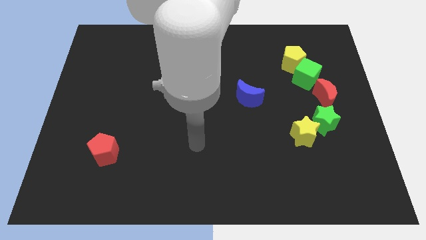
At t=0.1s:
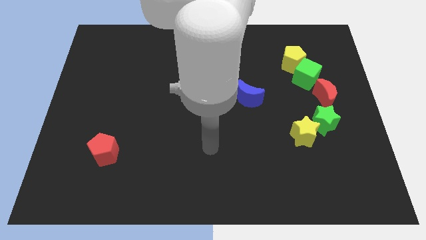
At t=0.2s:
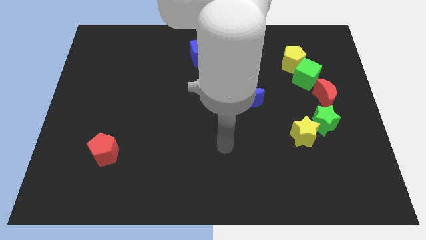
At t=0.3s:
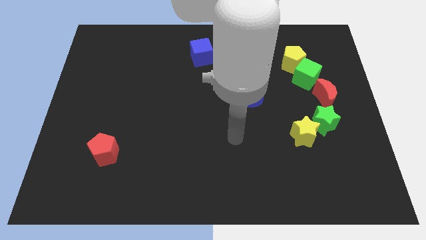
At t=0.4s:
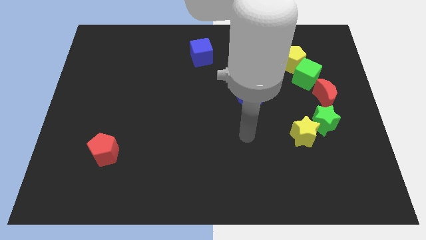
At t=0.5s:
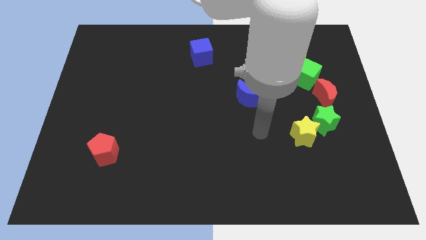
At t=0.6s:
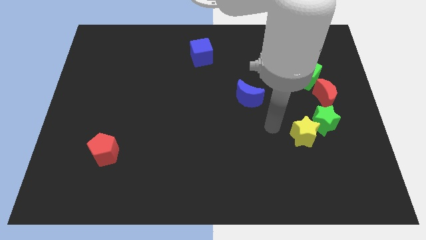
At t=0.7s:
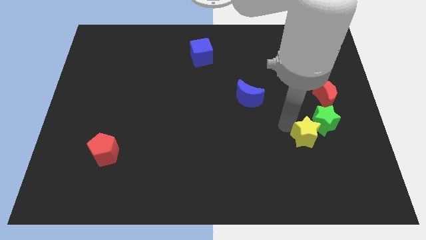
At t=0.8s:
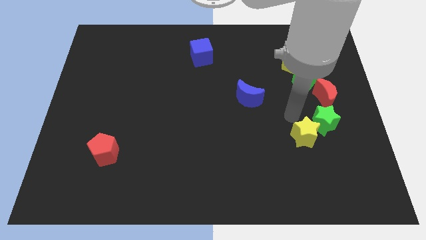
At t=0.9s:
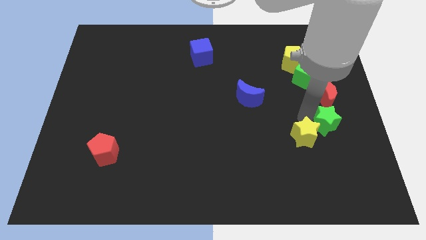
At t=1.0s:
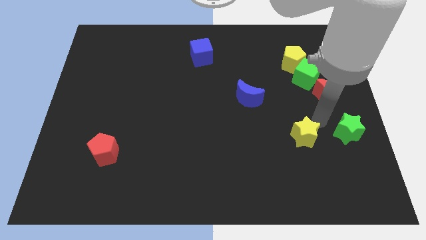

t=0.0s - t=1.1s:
separate the yellow star from the green star

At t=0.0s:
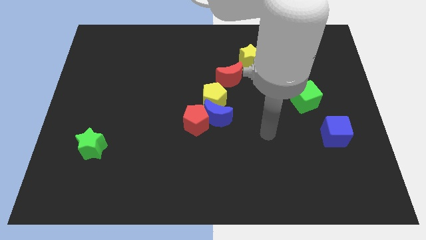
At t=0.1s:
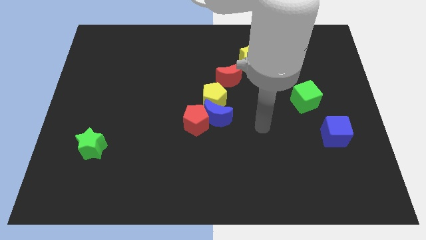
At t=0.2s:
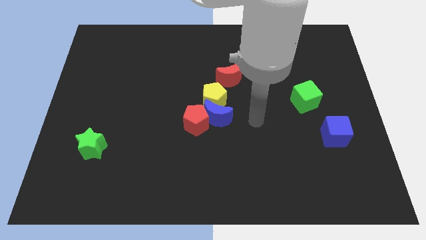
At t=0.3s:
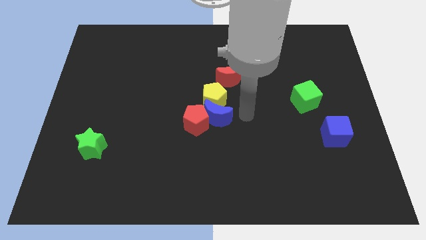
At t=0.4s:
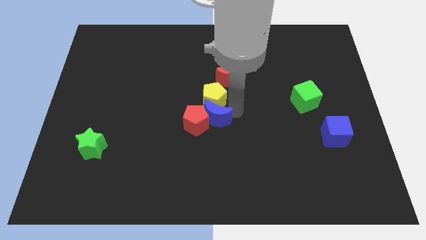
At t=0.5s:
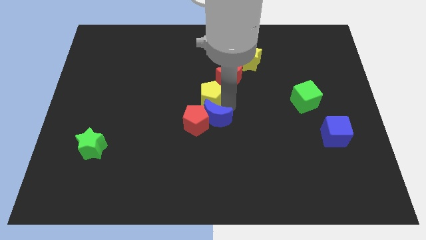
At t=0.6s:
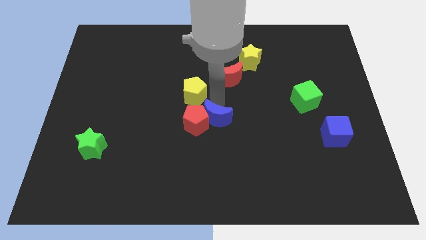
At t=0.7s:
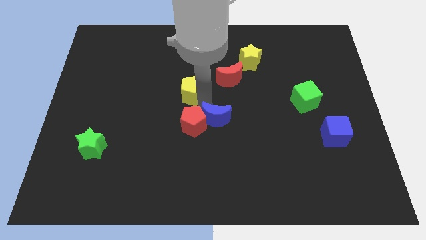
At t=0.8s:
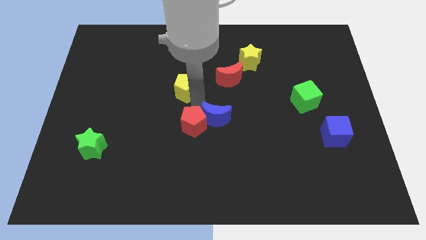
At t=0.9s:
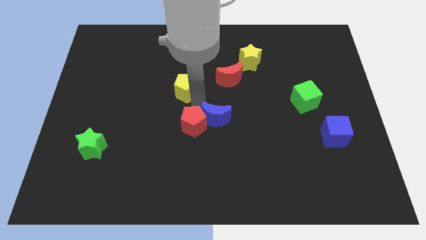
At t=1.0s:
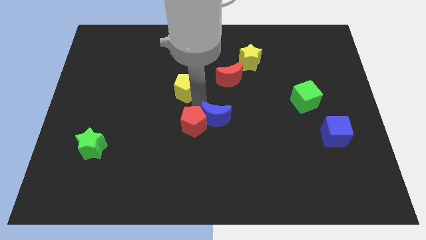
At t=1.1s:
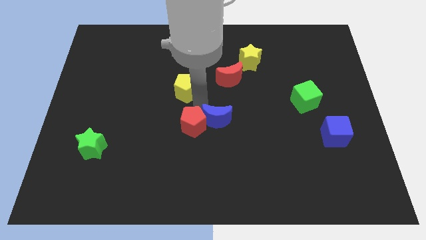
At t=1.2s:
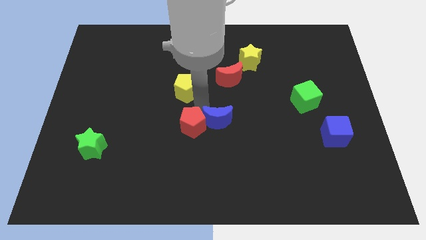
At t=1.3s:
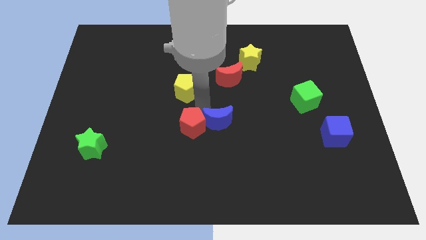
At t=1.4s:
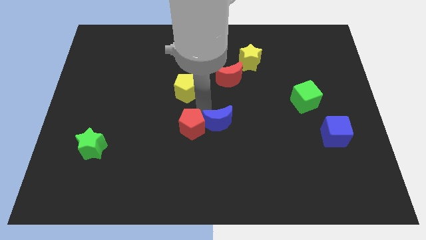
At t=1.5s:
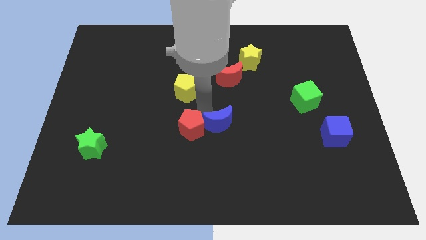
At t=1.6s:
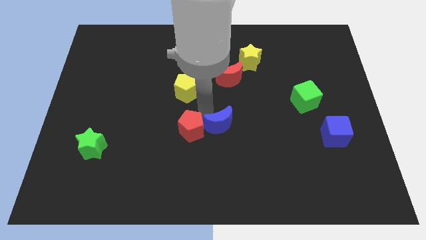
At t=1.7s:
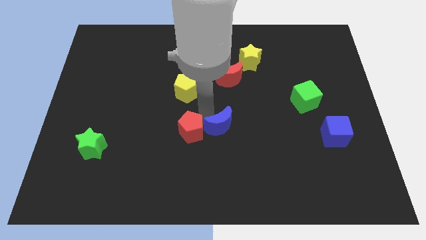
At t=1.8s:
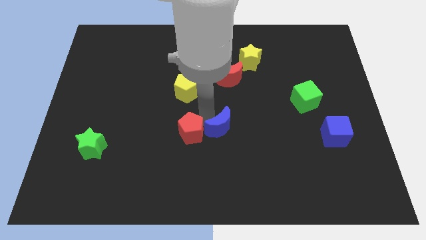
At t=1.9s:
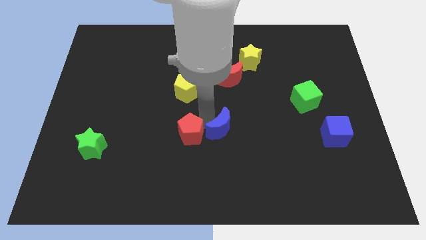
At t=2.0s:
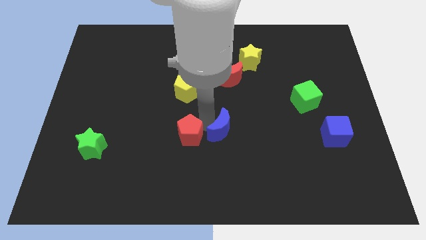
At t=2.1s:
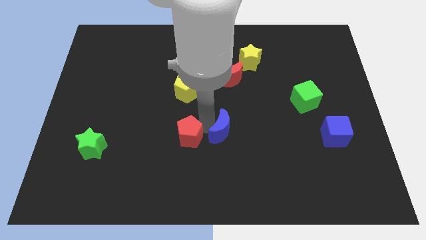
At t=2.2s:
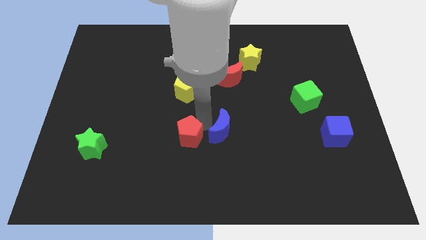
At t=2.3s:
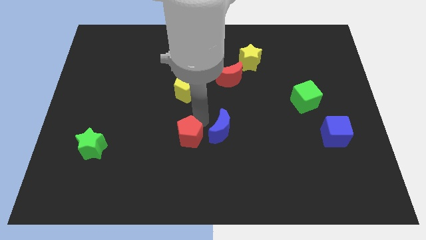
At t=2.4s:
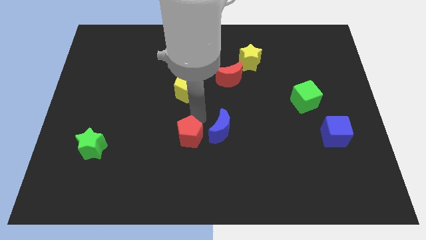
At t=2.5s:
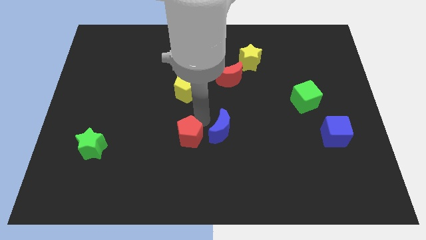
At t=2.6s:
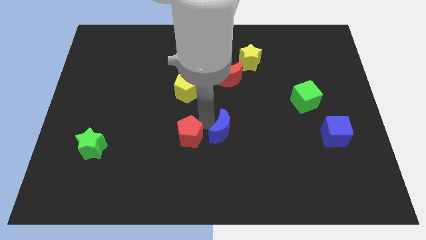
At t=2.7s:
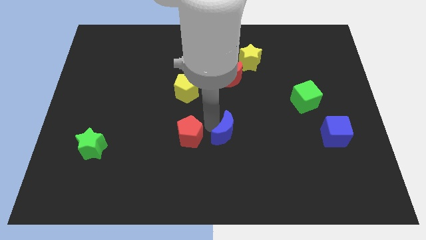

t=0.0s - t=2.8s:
move the blue moon away from the yellow pentagon and red pentagon

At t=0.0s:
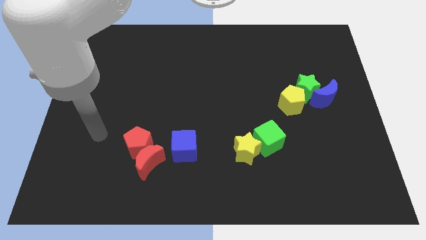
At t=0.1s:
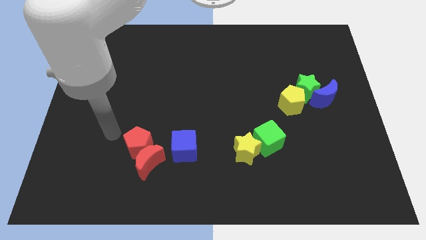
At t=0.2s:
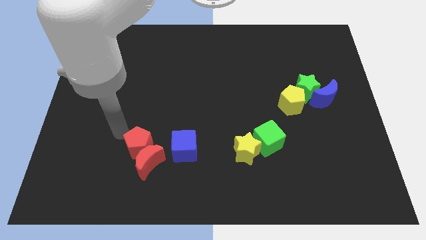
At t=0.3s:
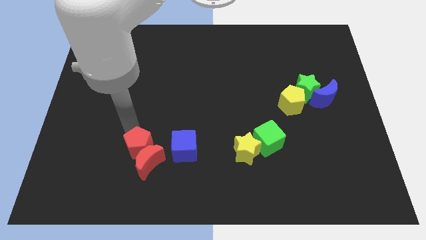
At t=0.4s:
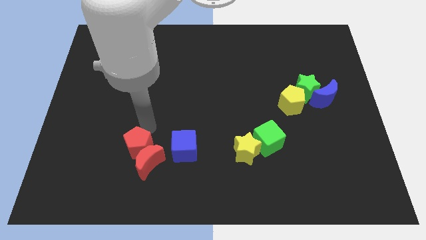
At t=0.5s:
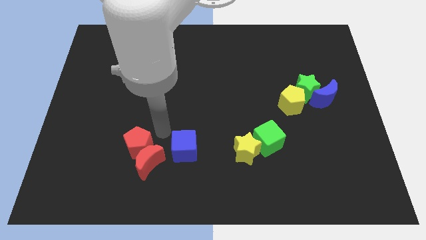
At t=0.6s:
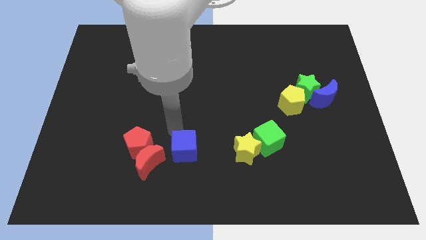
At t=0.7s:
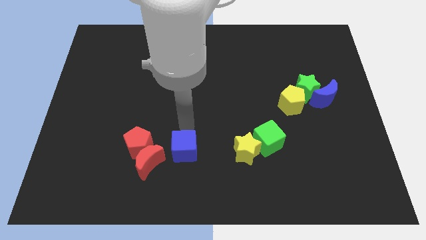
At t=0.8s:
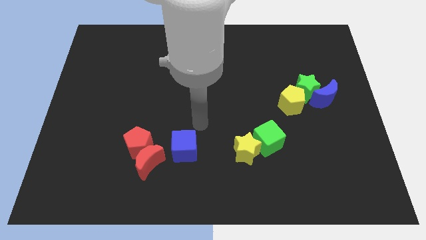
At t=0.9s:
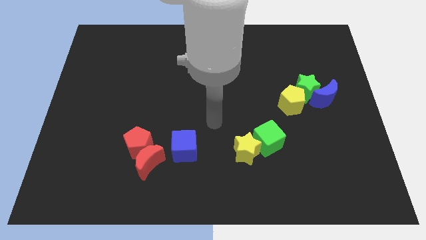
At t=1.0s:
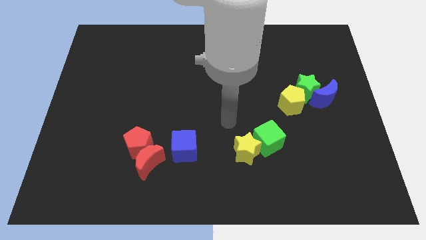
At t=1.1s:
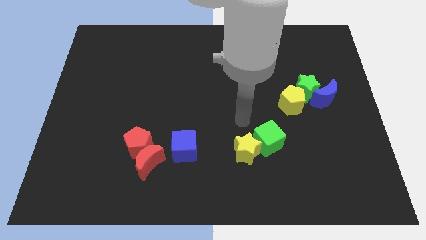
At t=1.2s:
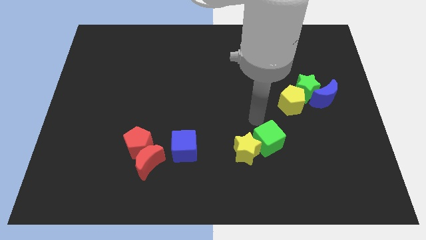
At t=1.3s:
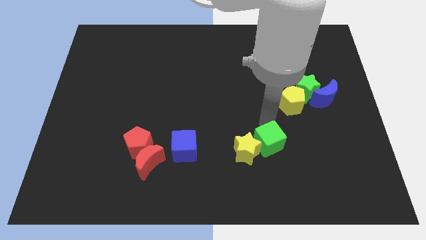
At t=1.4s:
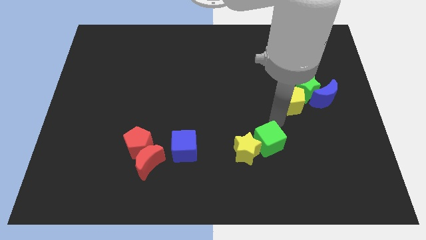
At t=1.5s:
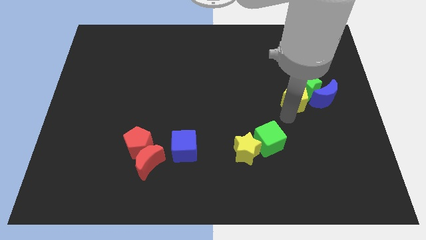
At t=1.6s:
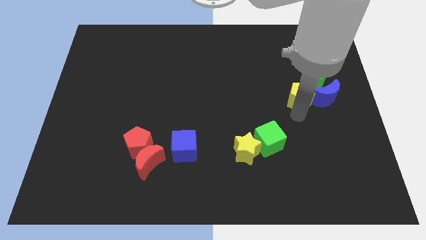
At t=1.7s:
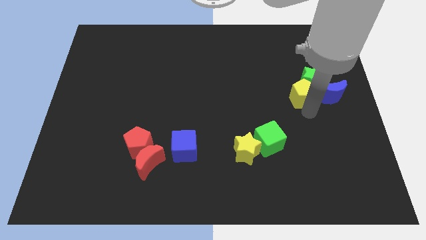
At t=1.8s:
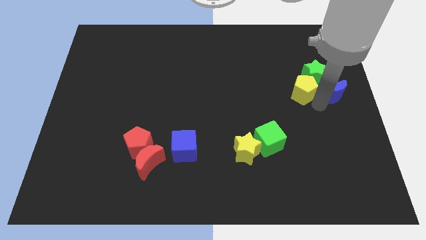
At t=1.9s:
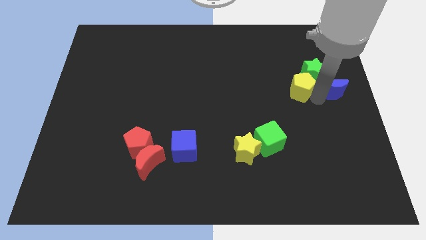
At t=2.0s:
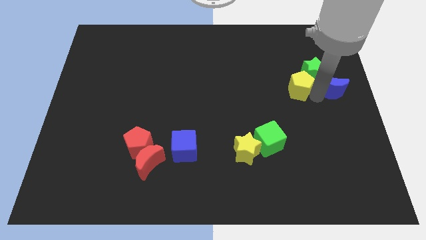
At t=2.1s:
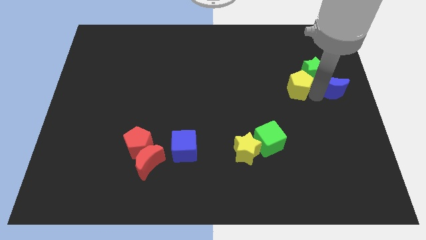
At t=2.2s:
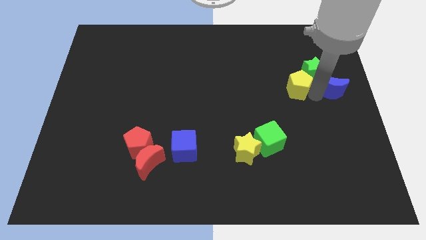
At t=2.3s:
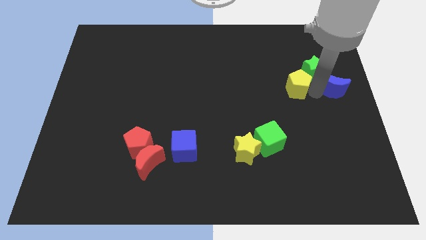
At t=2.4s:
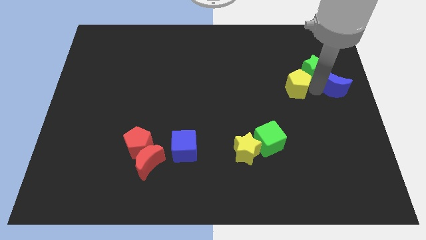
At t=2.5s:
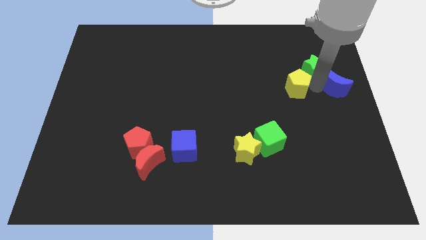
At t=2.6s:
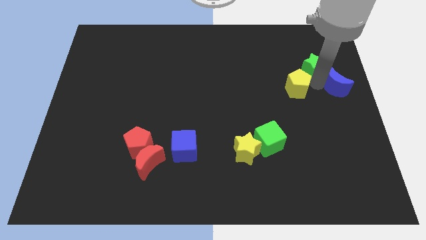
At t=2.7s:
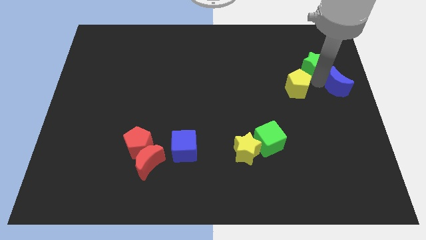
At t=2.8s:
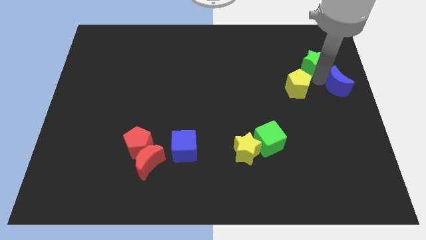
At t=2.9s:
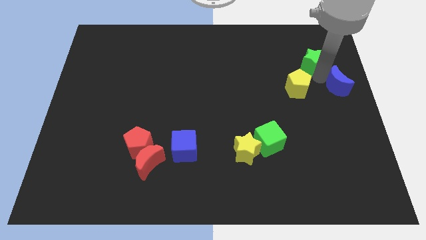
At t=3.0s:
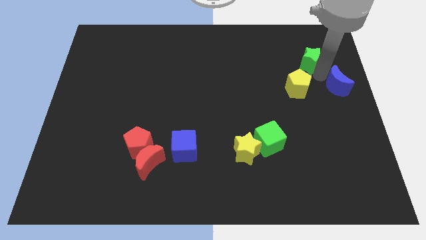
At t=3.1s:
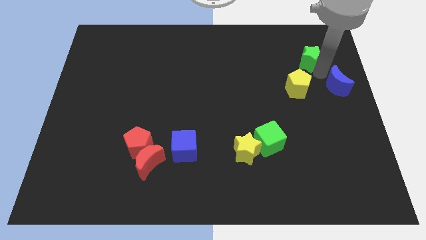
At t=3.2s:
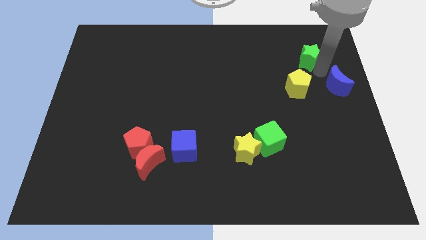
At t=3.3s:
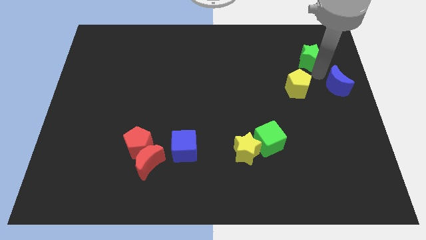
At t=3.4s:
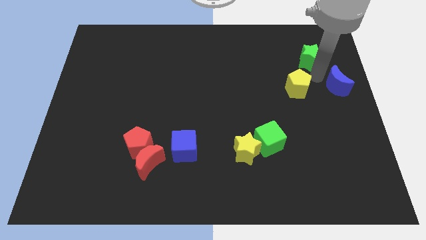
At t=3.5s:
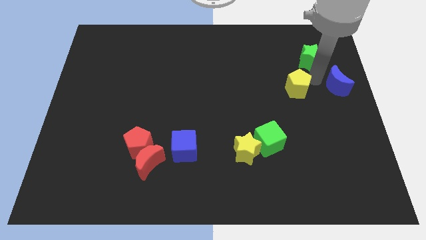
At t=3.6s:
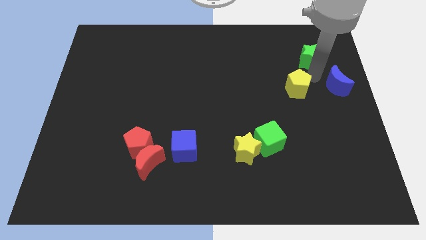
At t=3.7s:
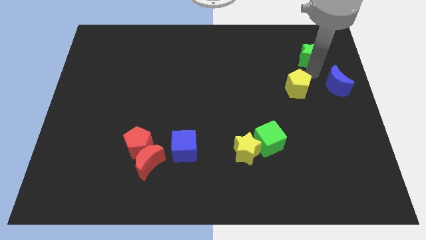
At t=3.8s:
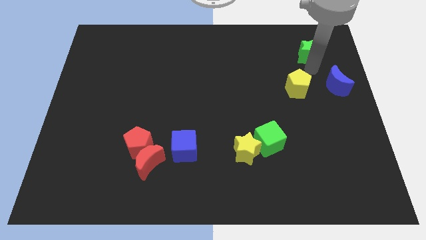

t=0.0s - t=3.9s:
separate the green star from the blue moon and yellow pentagon

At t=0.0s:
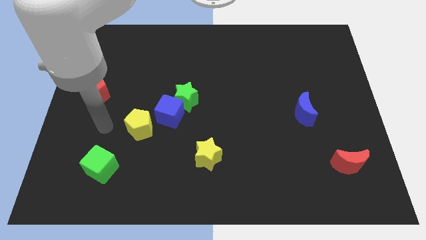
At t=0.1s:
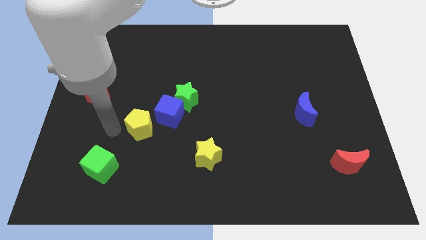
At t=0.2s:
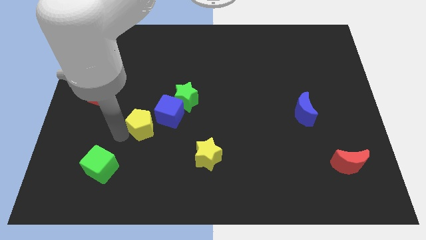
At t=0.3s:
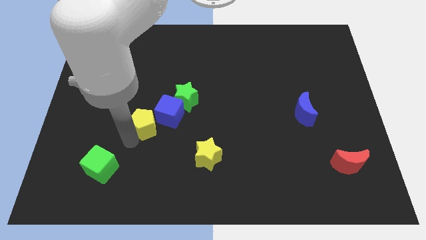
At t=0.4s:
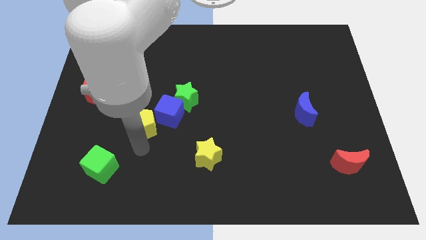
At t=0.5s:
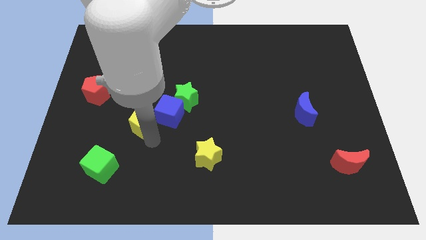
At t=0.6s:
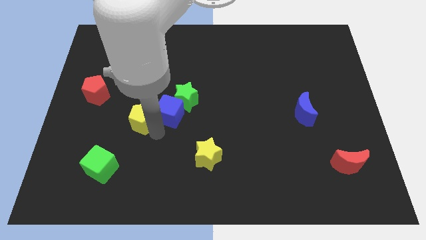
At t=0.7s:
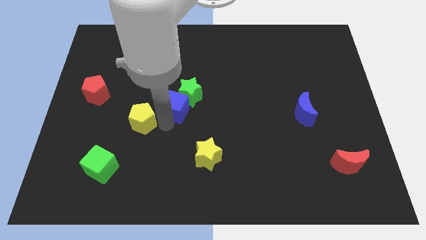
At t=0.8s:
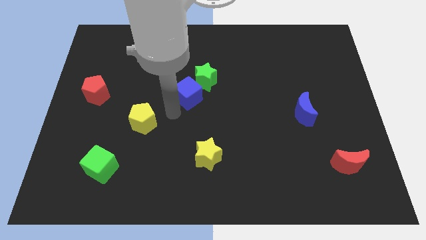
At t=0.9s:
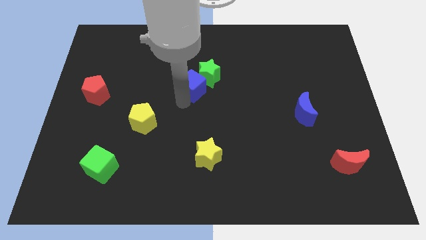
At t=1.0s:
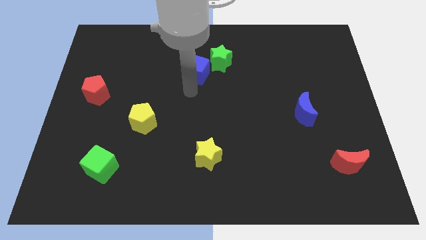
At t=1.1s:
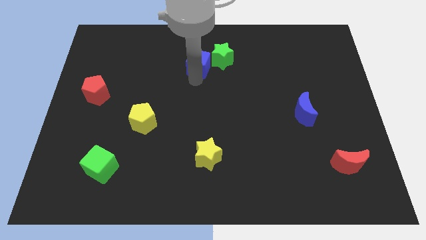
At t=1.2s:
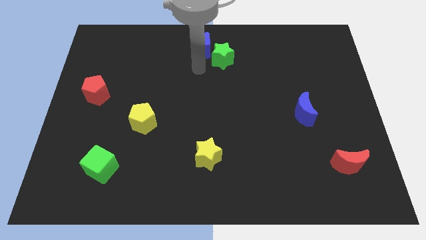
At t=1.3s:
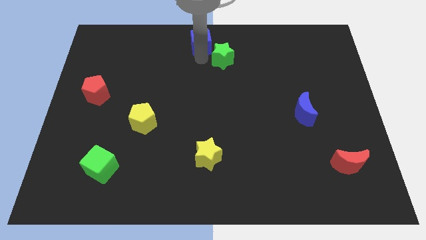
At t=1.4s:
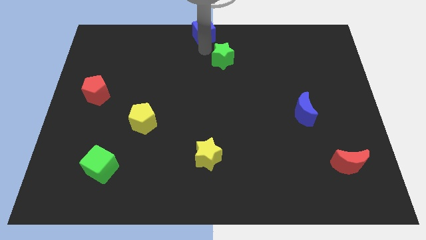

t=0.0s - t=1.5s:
separate the green star from the blue cube
